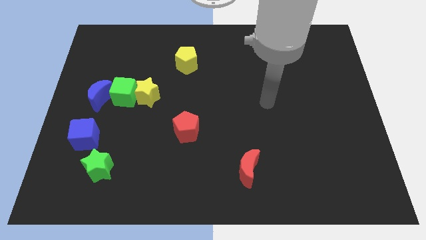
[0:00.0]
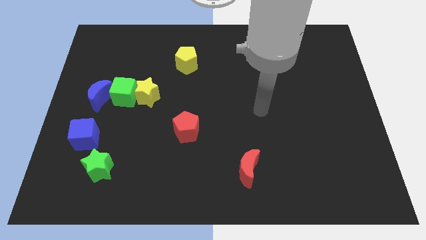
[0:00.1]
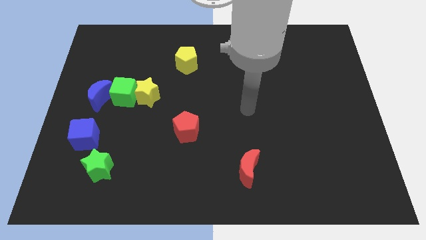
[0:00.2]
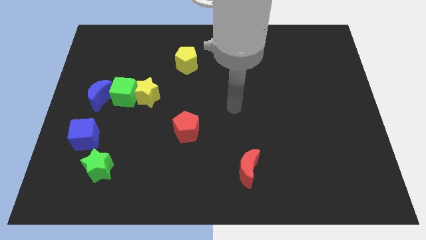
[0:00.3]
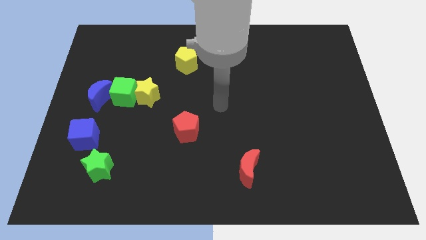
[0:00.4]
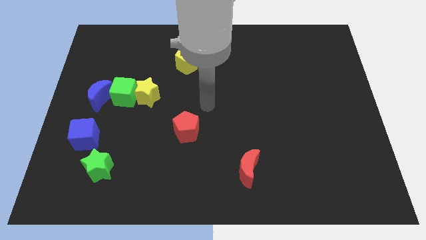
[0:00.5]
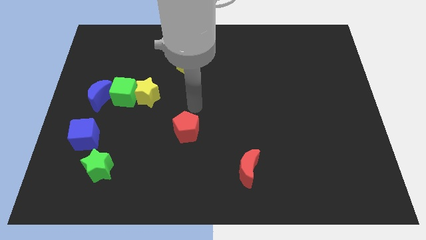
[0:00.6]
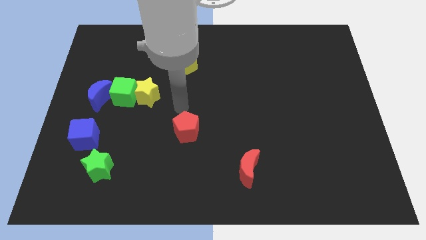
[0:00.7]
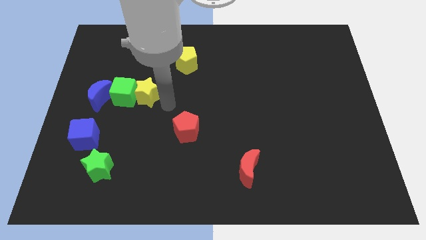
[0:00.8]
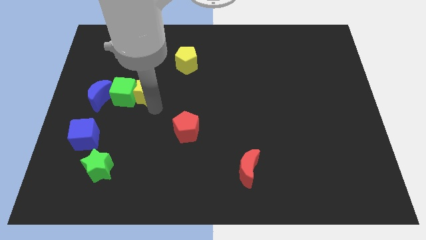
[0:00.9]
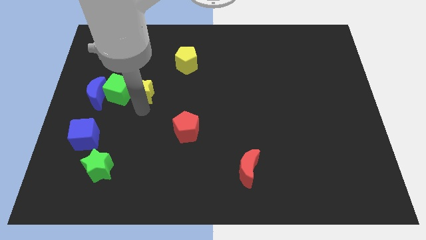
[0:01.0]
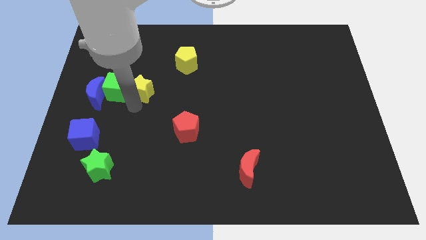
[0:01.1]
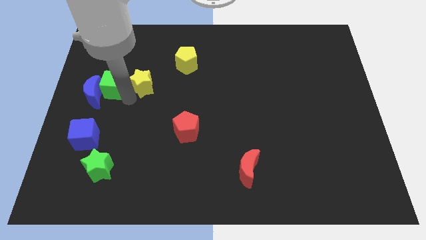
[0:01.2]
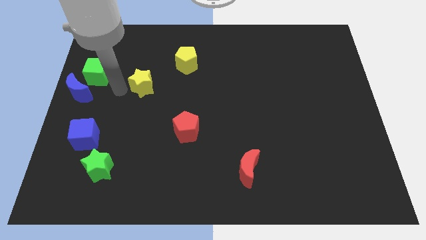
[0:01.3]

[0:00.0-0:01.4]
move the yellow star away from the green cube

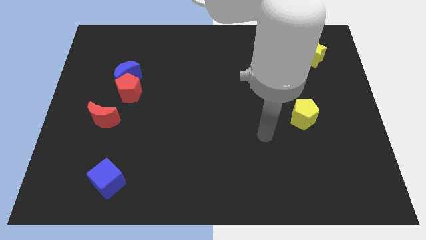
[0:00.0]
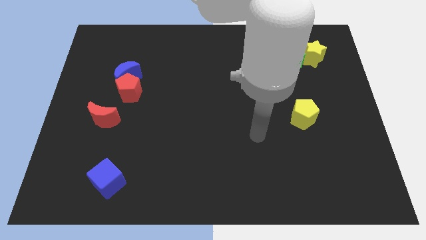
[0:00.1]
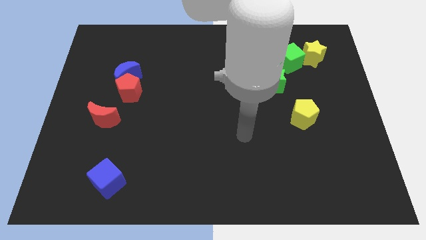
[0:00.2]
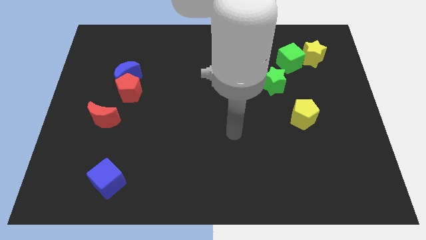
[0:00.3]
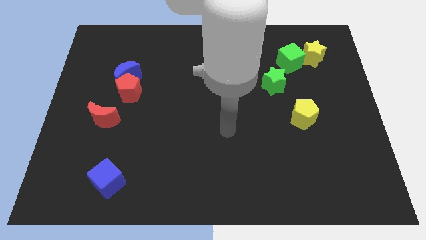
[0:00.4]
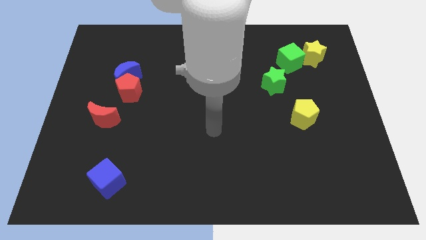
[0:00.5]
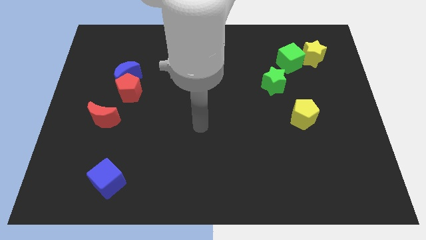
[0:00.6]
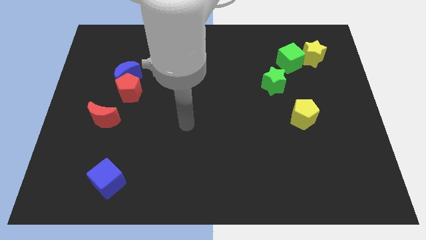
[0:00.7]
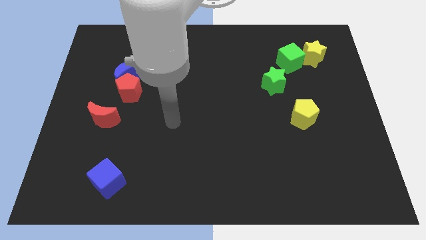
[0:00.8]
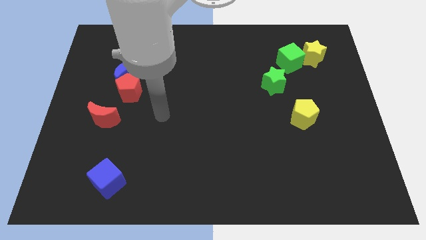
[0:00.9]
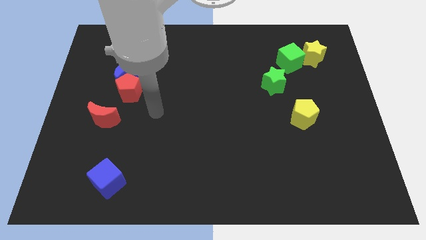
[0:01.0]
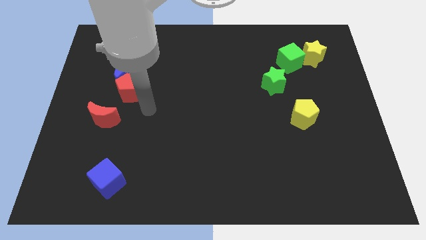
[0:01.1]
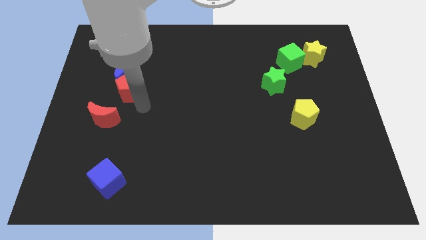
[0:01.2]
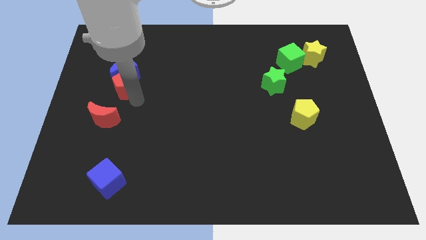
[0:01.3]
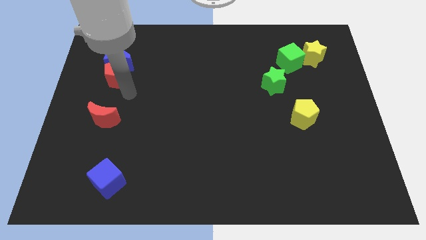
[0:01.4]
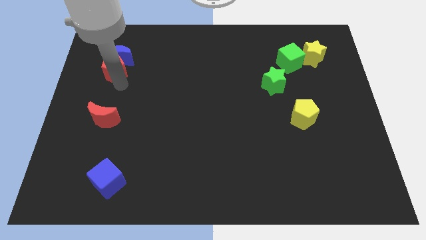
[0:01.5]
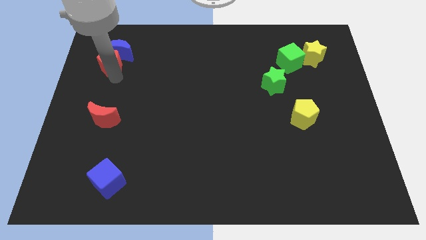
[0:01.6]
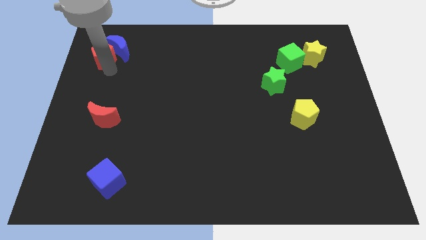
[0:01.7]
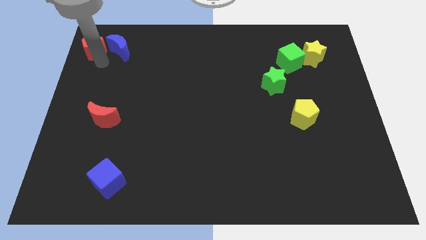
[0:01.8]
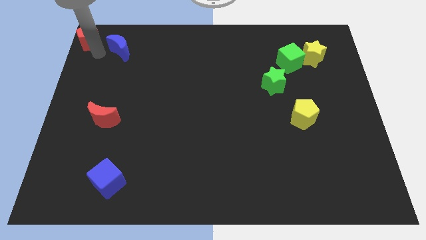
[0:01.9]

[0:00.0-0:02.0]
pull the blue moon apart from the red pentagon

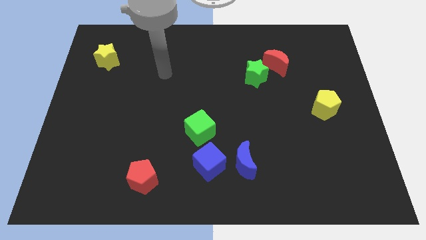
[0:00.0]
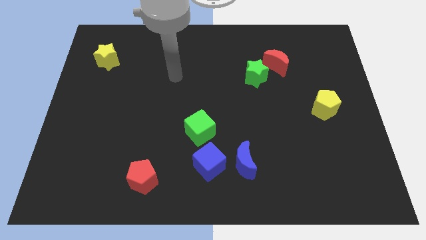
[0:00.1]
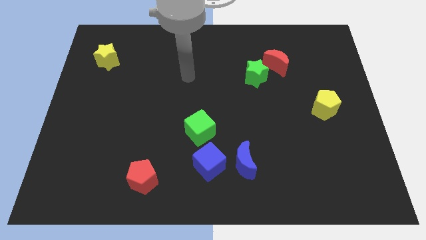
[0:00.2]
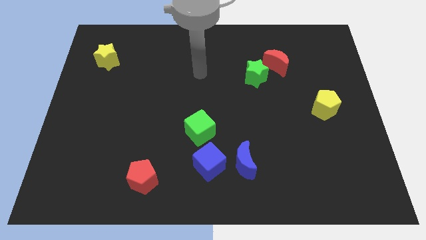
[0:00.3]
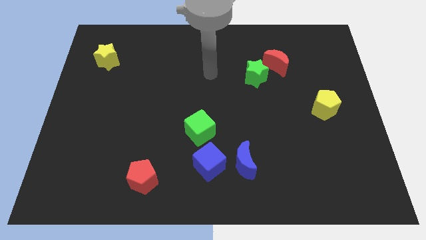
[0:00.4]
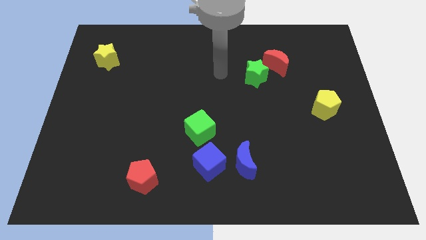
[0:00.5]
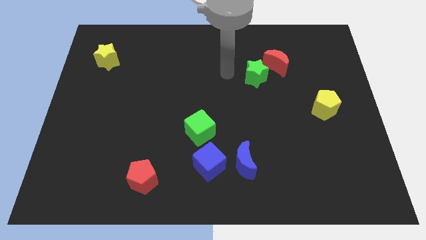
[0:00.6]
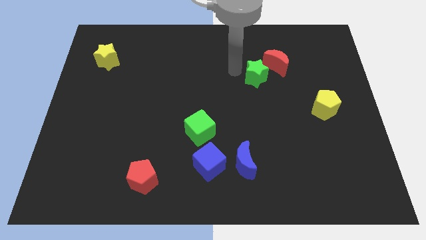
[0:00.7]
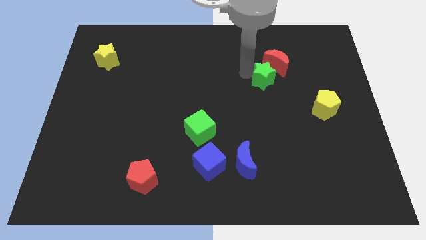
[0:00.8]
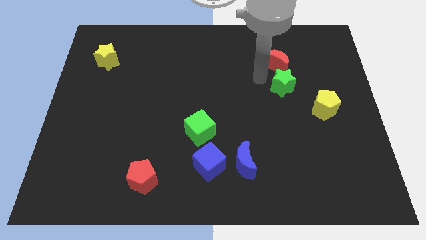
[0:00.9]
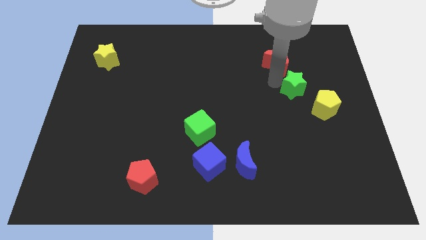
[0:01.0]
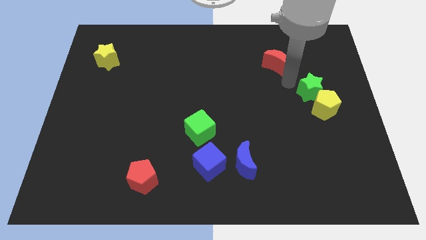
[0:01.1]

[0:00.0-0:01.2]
separate the red moon from the green star

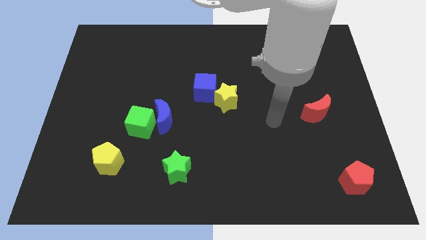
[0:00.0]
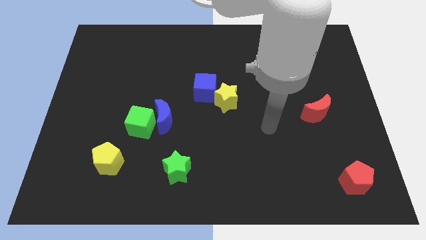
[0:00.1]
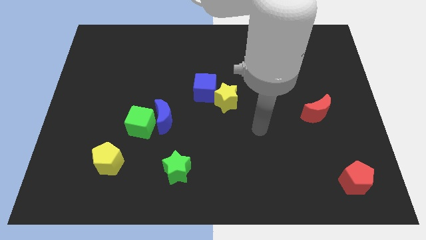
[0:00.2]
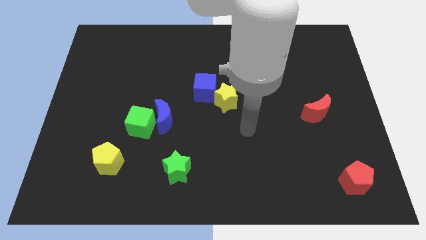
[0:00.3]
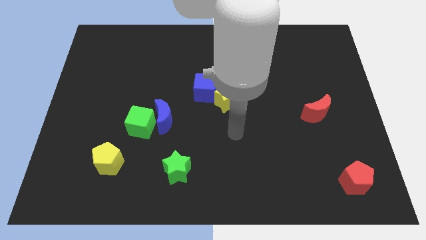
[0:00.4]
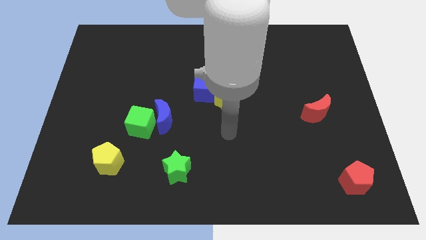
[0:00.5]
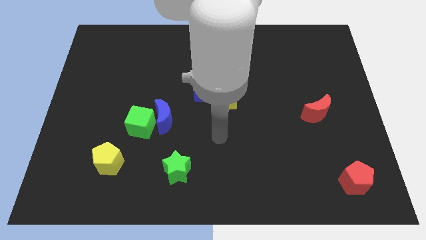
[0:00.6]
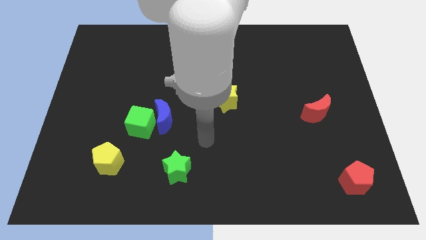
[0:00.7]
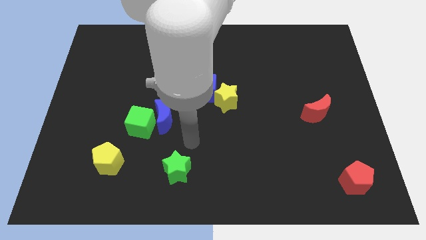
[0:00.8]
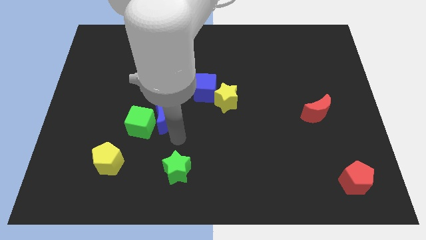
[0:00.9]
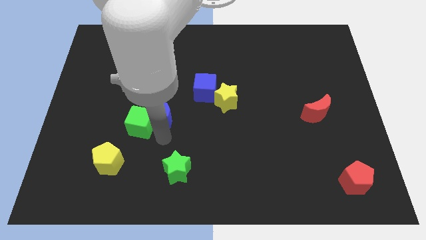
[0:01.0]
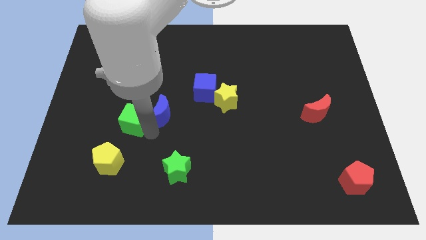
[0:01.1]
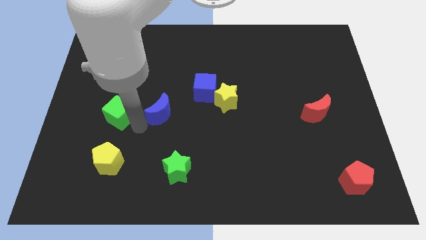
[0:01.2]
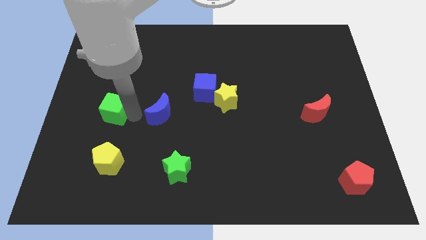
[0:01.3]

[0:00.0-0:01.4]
pull the blue moon apart from the green cube

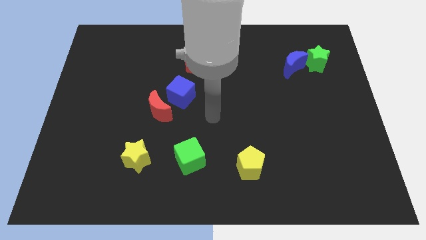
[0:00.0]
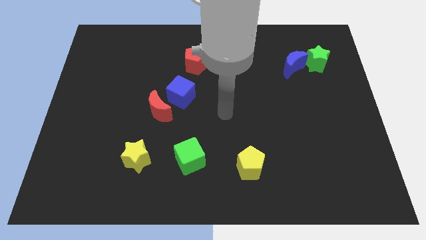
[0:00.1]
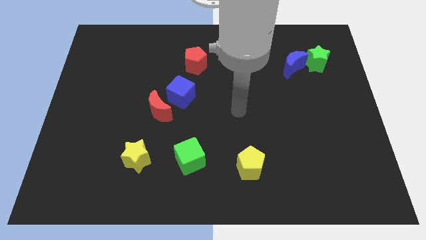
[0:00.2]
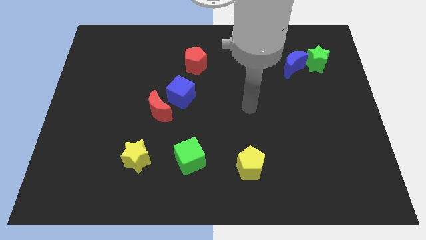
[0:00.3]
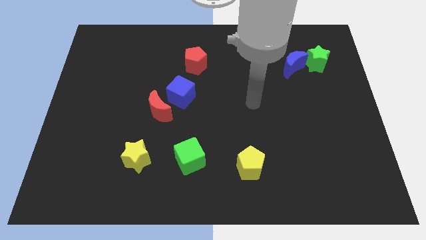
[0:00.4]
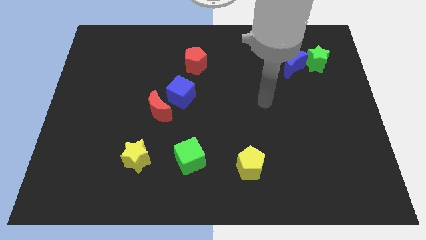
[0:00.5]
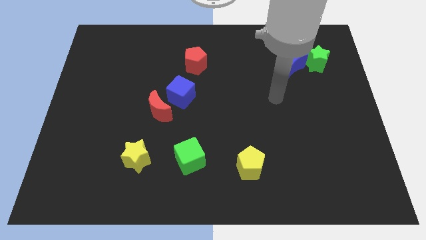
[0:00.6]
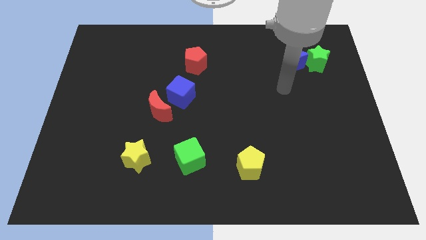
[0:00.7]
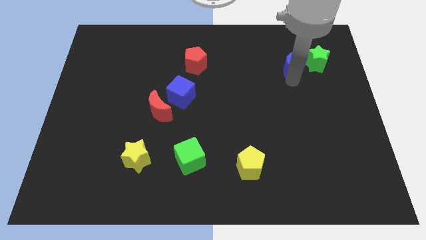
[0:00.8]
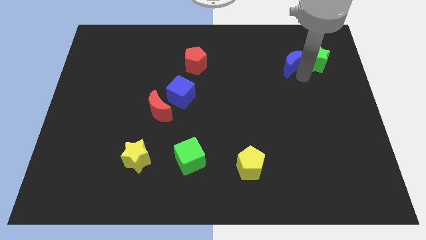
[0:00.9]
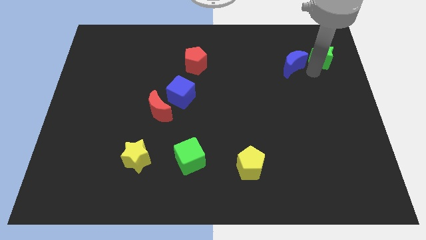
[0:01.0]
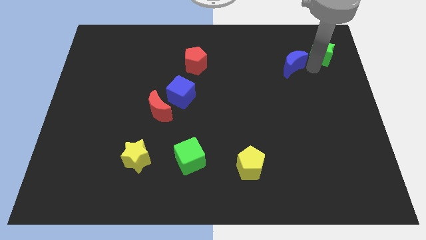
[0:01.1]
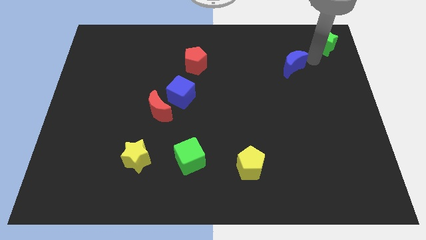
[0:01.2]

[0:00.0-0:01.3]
pull the blue moon apart from the green star

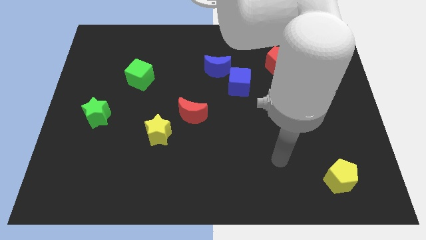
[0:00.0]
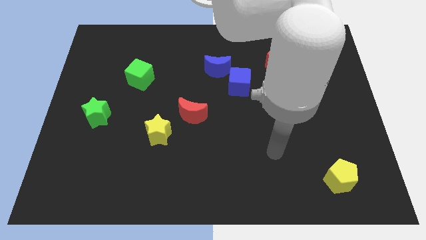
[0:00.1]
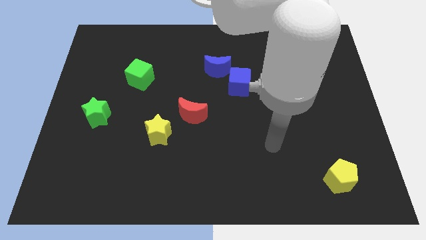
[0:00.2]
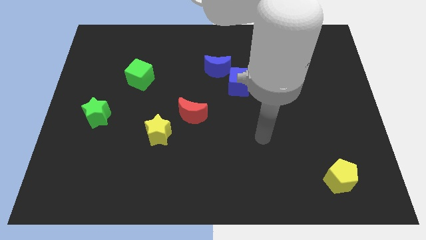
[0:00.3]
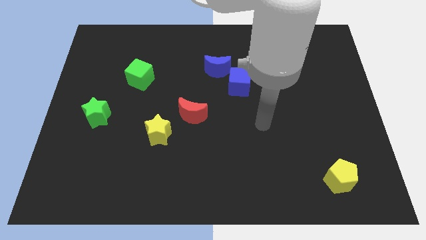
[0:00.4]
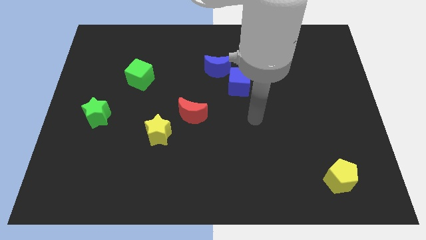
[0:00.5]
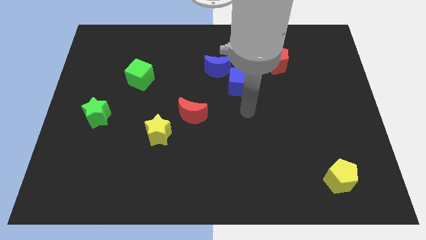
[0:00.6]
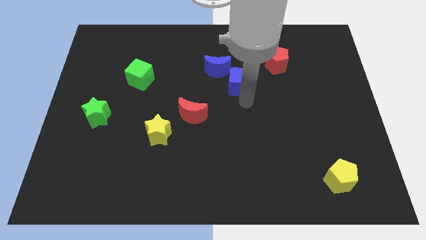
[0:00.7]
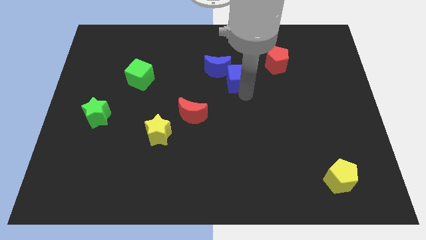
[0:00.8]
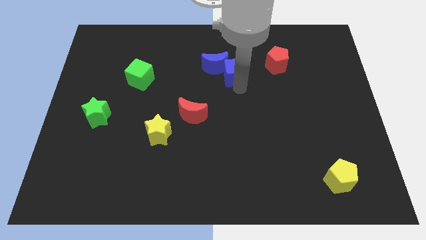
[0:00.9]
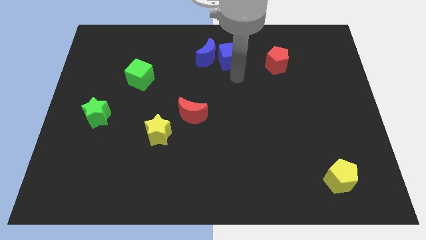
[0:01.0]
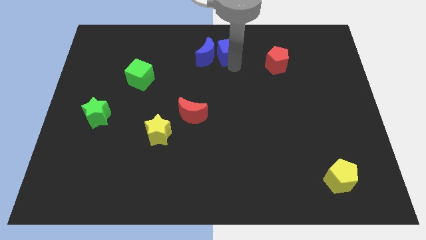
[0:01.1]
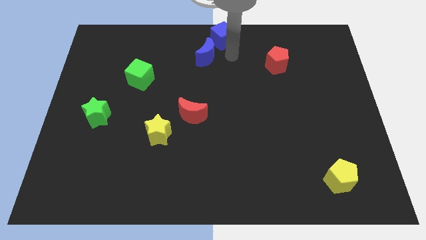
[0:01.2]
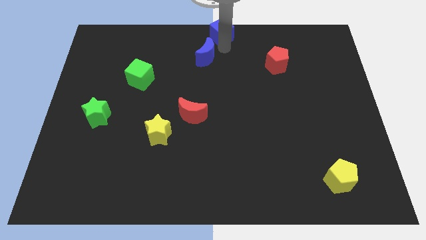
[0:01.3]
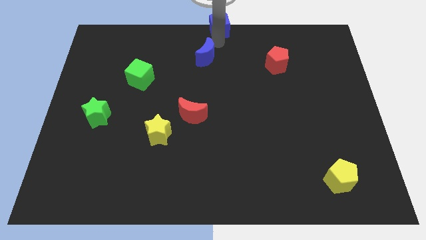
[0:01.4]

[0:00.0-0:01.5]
pull the blue moon apart from the blue cube

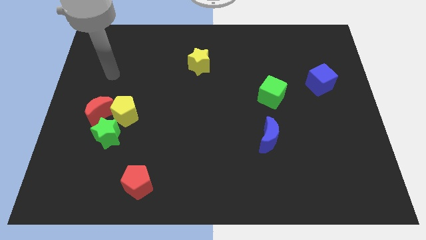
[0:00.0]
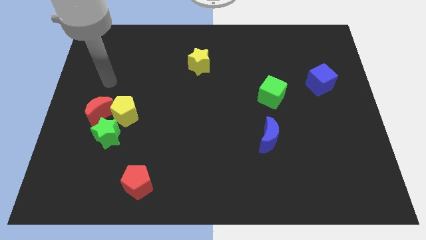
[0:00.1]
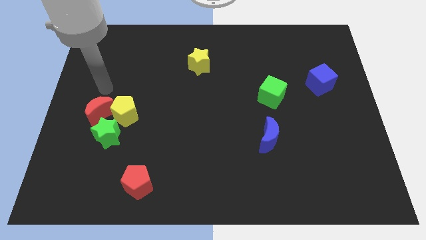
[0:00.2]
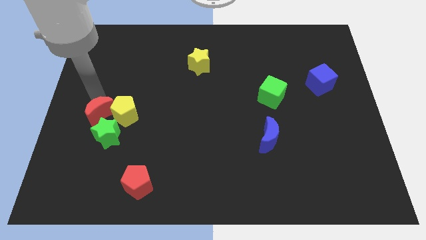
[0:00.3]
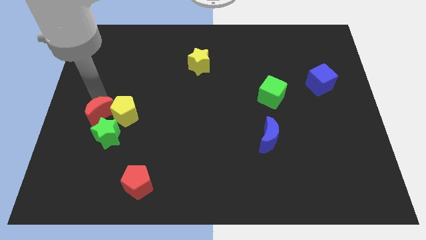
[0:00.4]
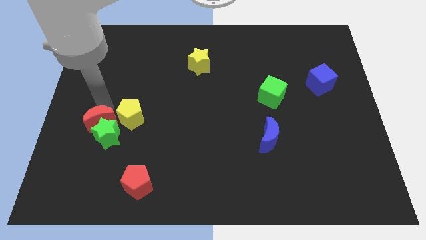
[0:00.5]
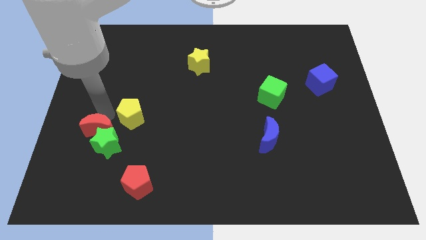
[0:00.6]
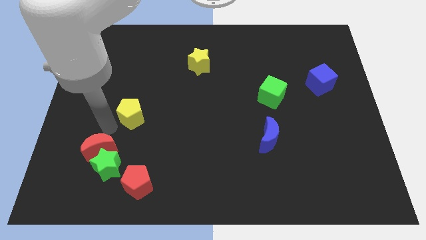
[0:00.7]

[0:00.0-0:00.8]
pull the yellow pentagon apart from the red moon and green star
